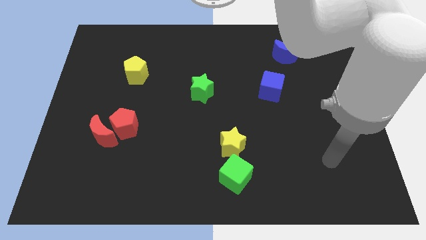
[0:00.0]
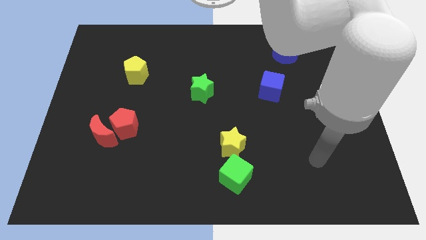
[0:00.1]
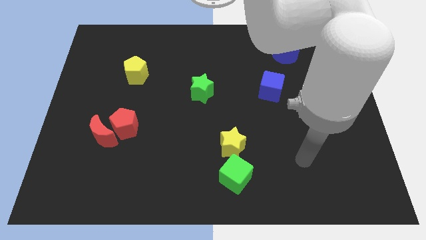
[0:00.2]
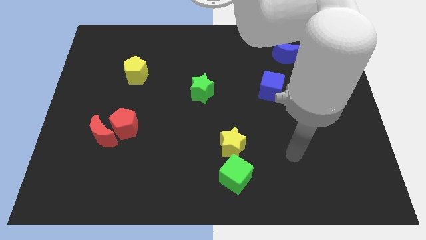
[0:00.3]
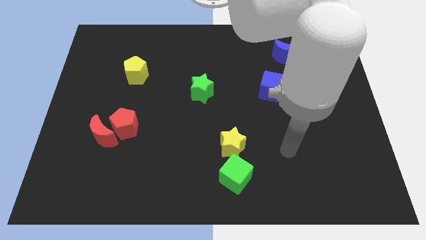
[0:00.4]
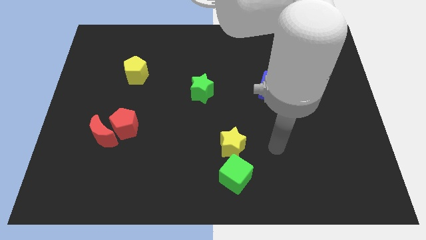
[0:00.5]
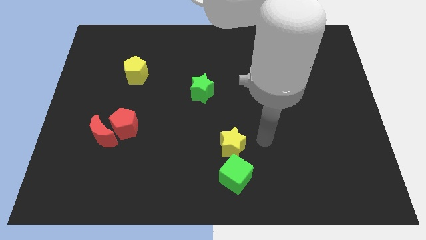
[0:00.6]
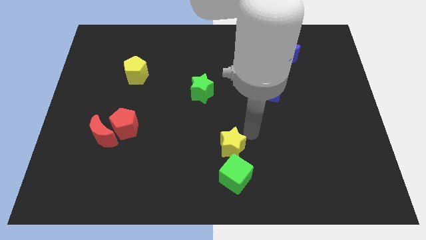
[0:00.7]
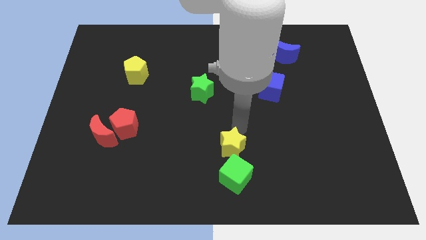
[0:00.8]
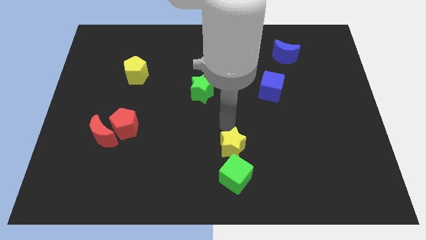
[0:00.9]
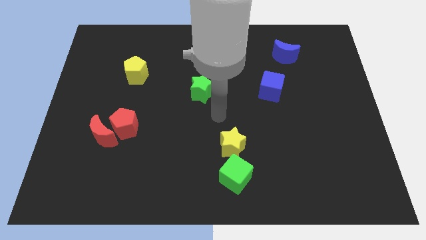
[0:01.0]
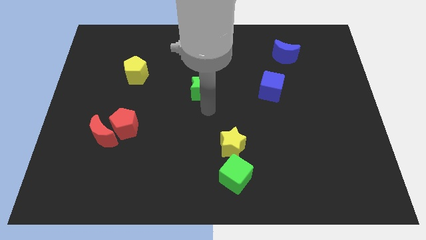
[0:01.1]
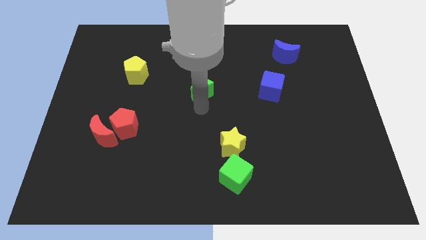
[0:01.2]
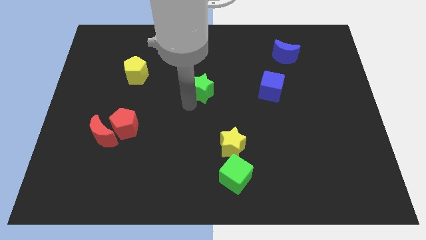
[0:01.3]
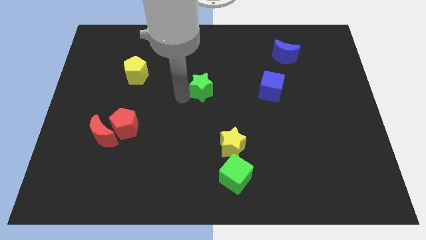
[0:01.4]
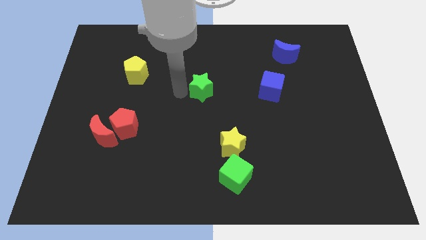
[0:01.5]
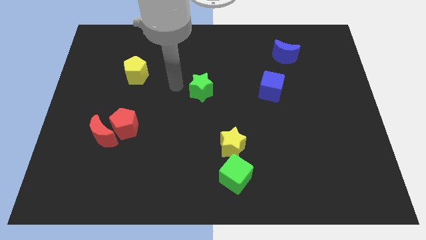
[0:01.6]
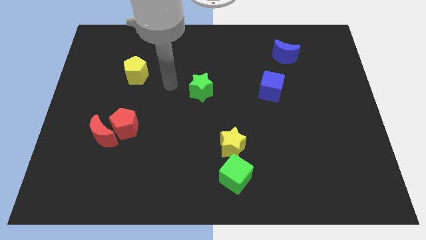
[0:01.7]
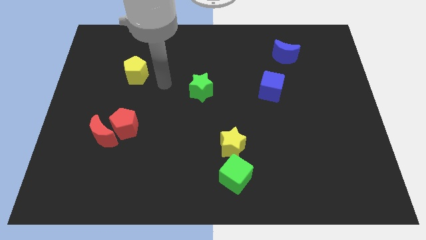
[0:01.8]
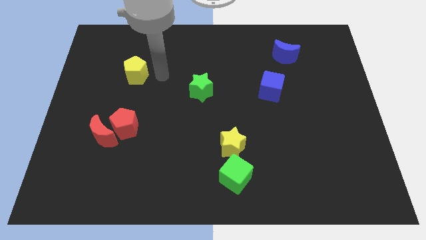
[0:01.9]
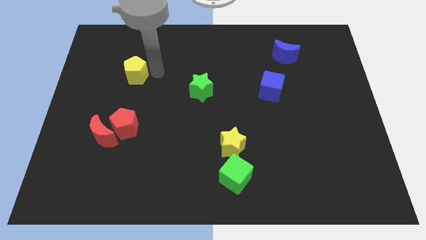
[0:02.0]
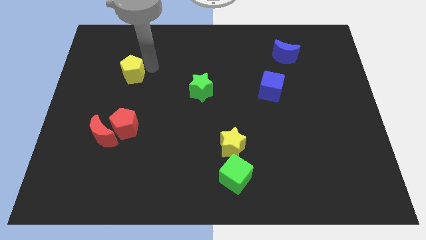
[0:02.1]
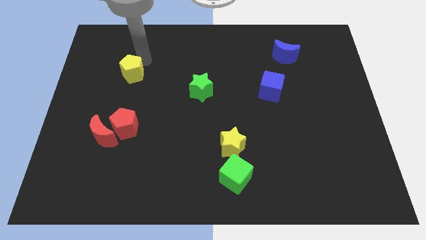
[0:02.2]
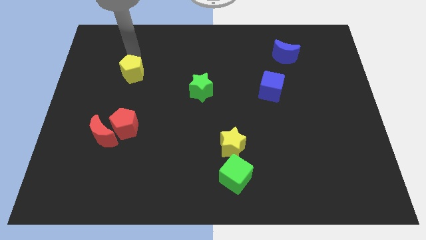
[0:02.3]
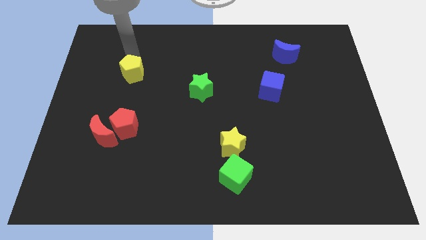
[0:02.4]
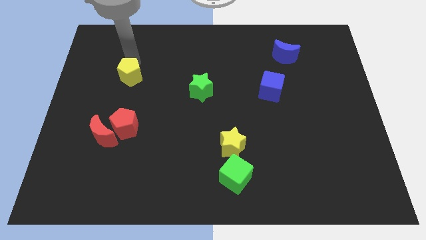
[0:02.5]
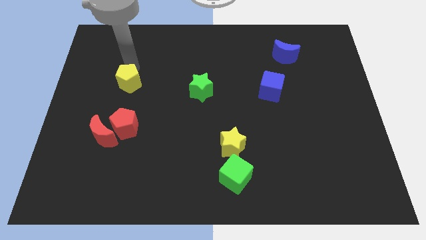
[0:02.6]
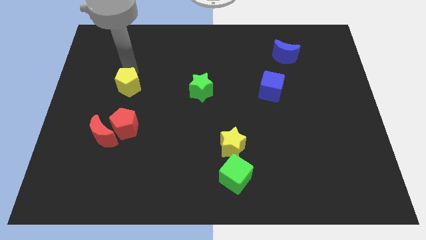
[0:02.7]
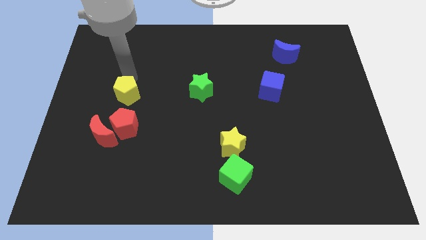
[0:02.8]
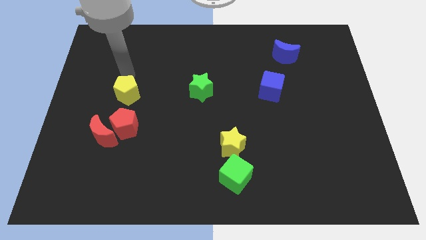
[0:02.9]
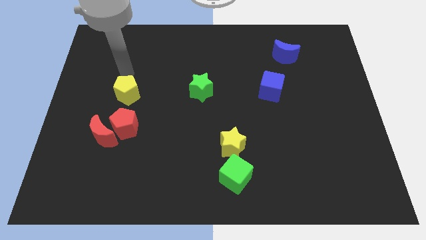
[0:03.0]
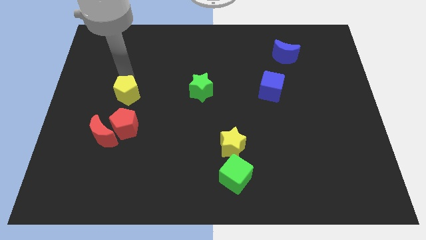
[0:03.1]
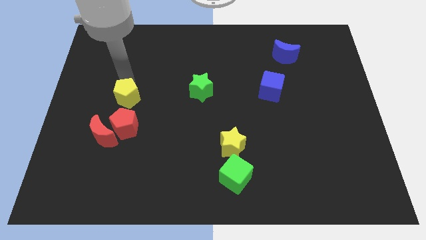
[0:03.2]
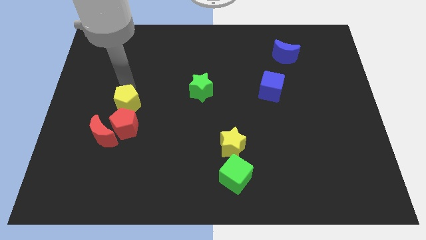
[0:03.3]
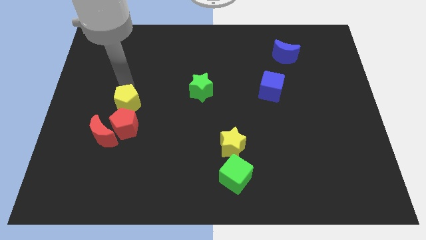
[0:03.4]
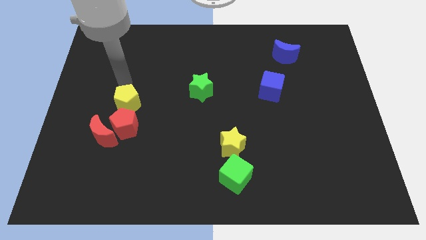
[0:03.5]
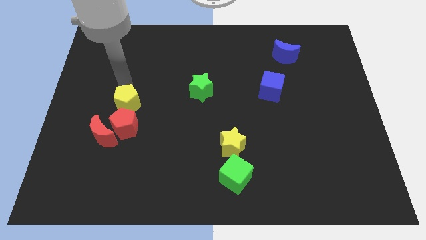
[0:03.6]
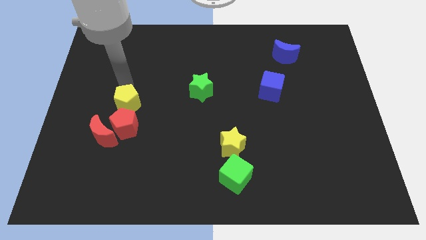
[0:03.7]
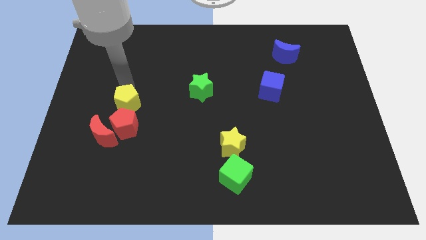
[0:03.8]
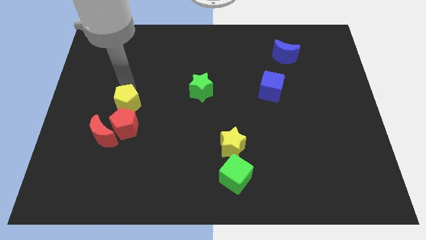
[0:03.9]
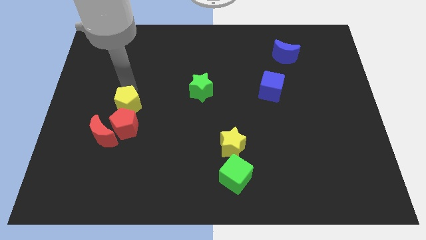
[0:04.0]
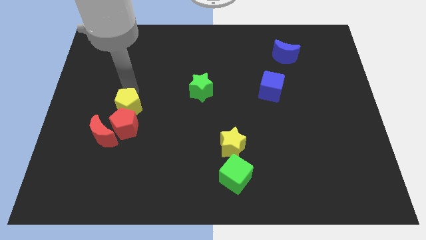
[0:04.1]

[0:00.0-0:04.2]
move the yellow pentagon towards the red pentagon

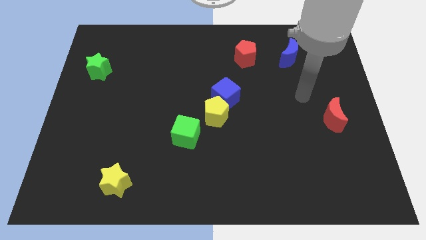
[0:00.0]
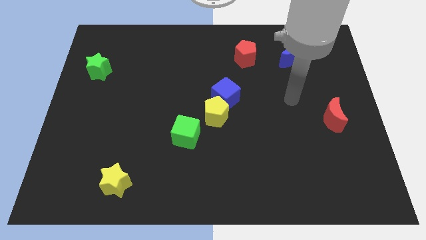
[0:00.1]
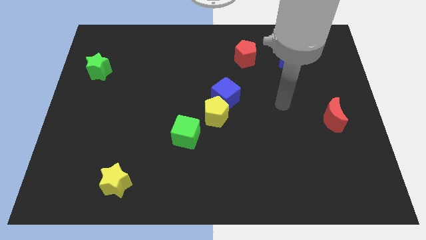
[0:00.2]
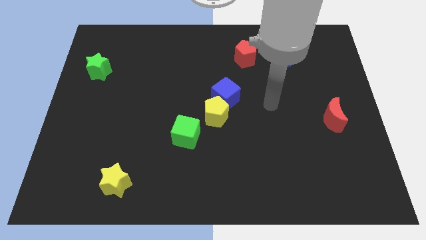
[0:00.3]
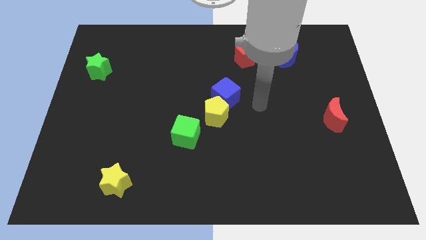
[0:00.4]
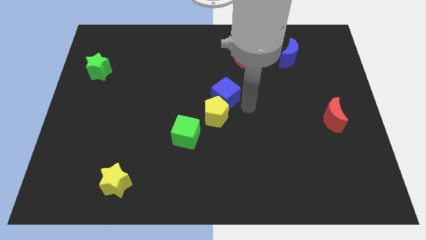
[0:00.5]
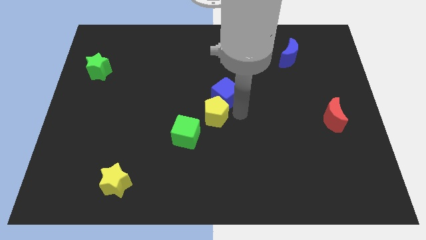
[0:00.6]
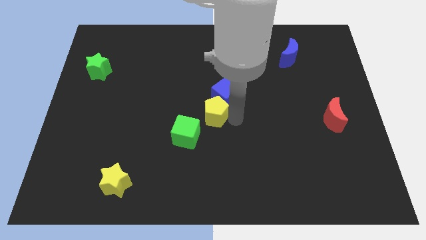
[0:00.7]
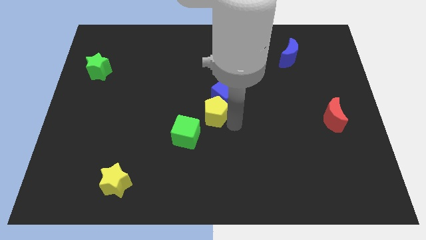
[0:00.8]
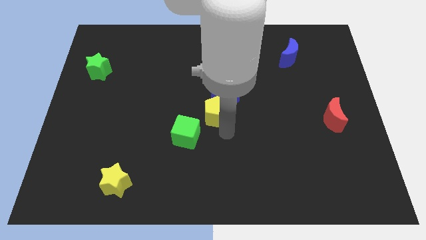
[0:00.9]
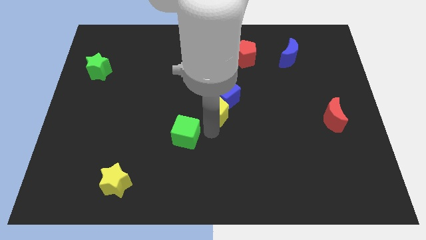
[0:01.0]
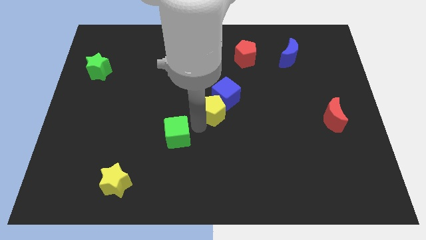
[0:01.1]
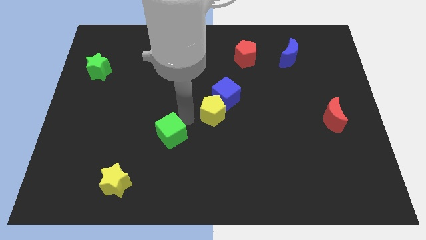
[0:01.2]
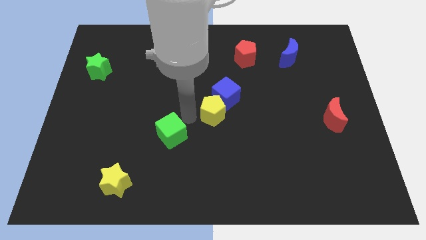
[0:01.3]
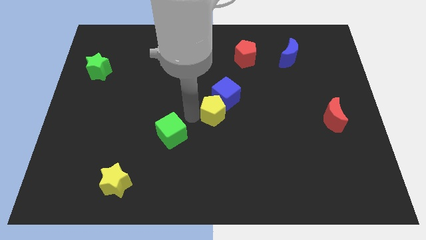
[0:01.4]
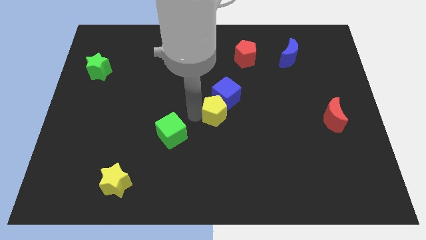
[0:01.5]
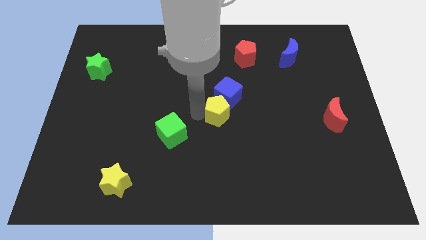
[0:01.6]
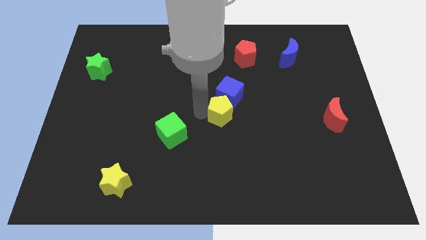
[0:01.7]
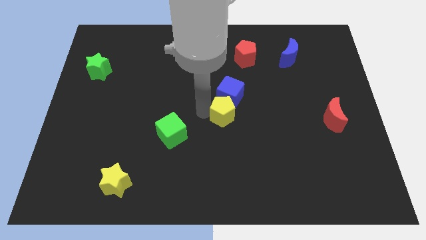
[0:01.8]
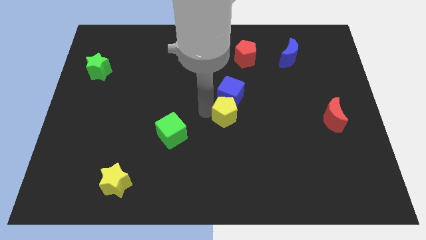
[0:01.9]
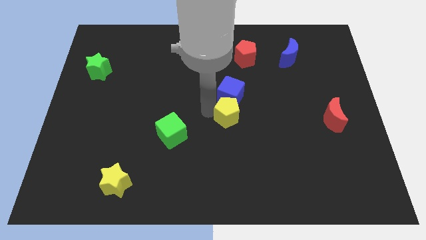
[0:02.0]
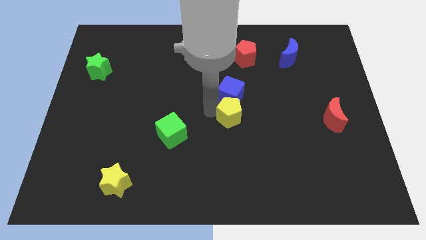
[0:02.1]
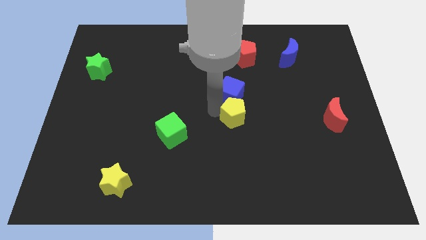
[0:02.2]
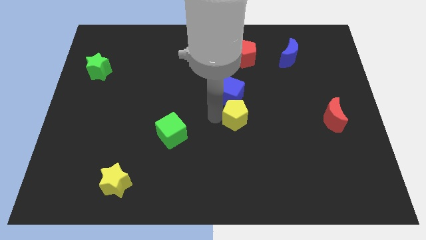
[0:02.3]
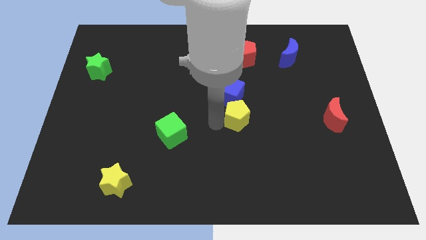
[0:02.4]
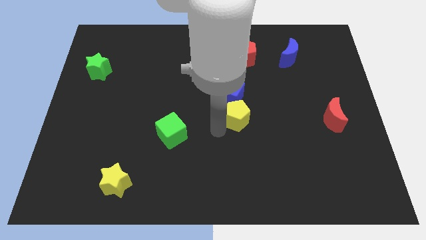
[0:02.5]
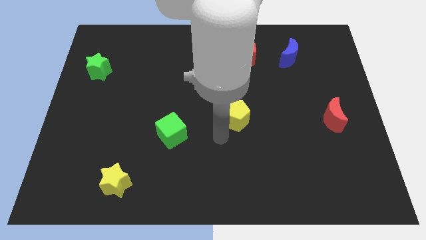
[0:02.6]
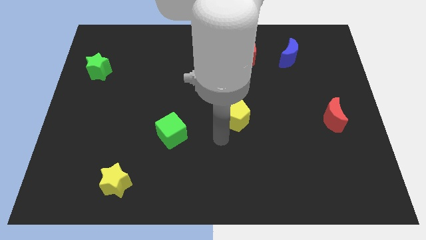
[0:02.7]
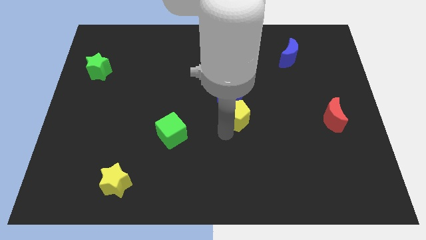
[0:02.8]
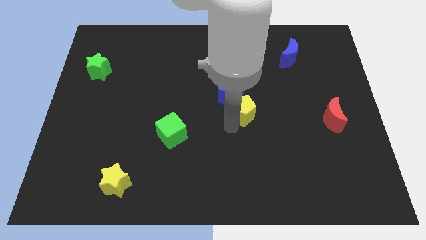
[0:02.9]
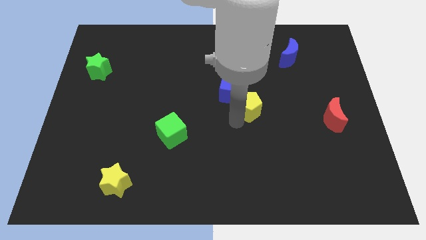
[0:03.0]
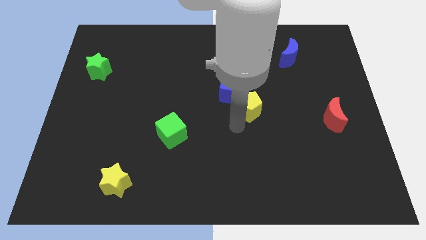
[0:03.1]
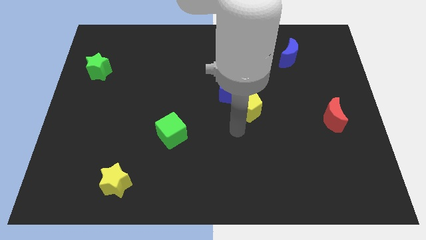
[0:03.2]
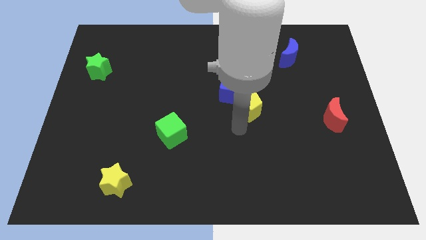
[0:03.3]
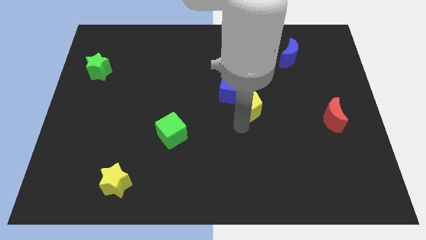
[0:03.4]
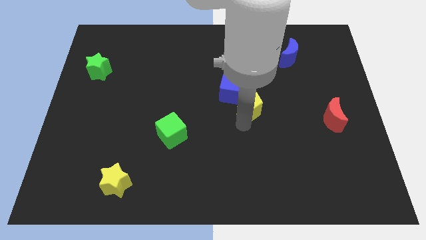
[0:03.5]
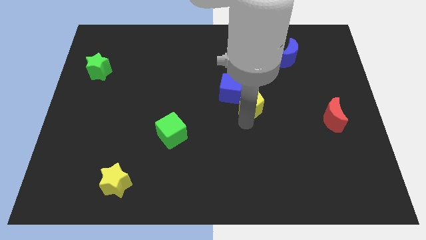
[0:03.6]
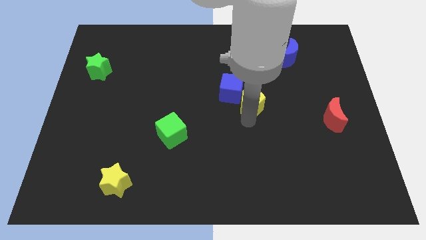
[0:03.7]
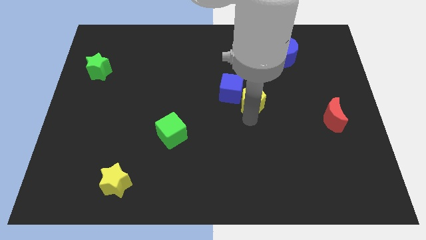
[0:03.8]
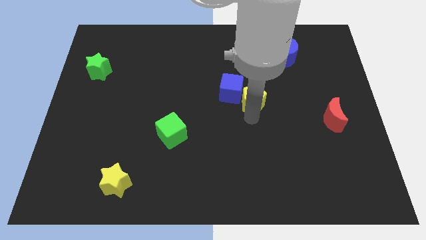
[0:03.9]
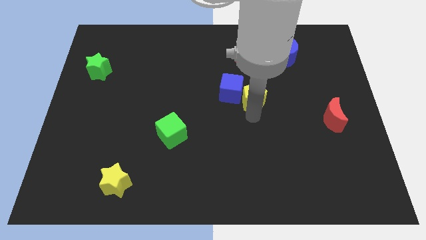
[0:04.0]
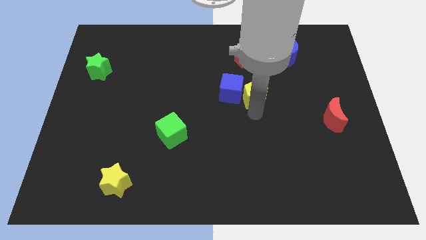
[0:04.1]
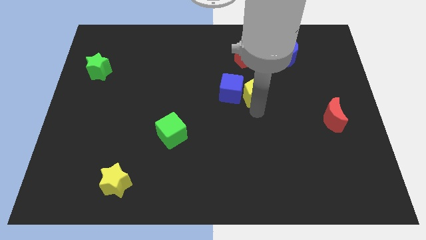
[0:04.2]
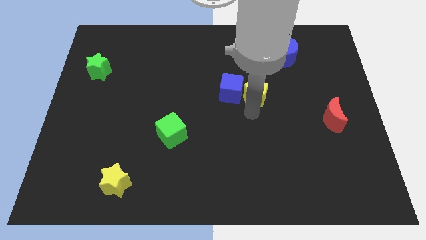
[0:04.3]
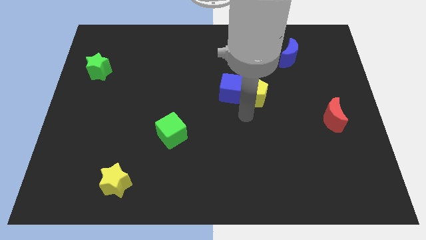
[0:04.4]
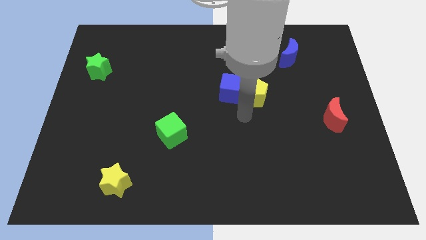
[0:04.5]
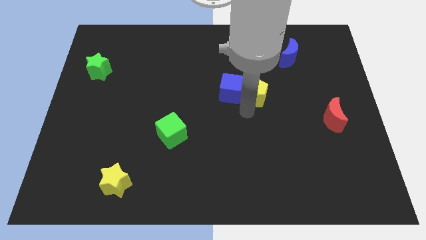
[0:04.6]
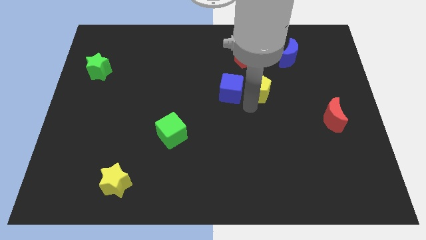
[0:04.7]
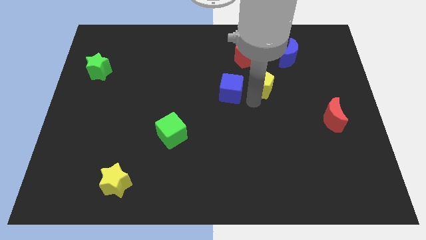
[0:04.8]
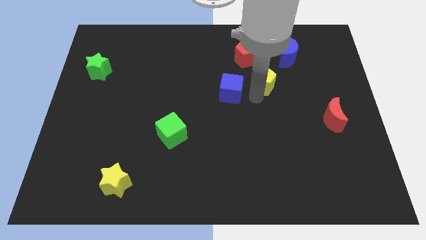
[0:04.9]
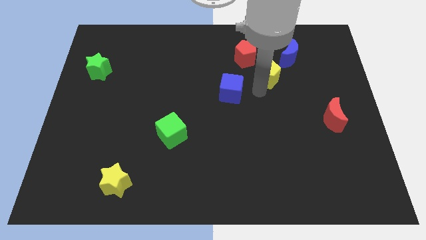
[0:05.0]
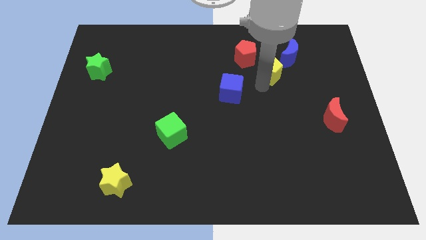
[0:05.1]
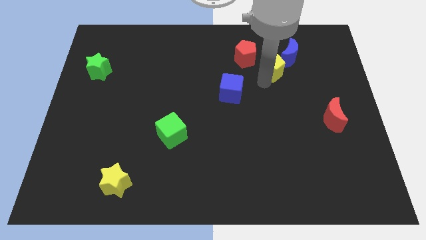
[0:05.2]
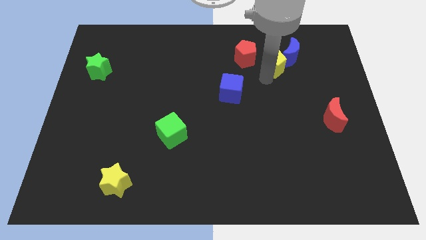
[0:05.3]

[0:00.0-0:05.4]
move the yellow pentagon close to the blue moon
